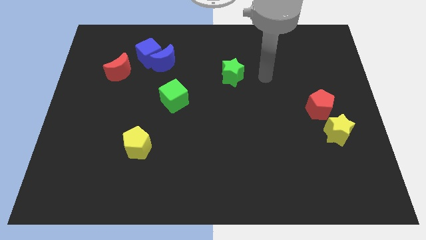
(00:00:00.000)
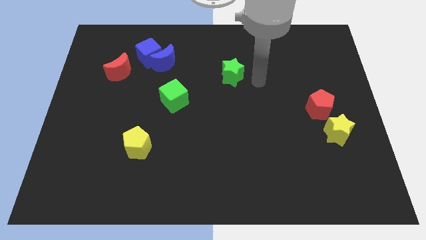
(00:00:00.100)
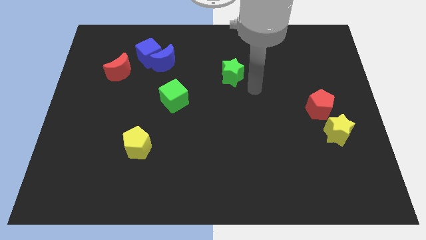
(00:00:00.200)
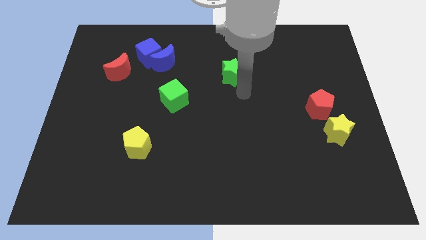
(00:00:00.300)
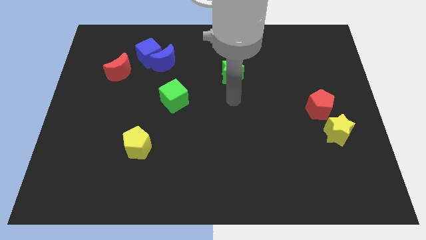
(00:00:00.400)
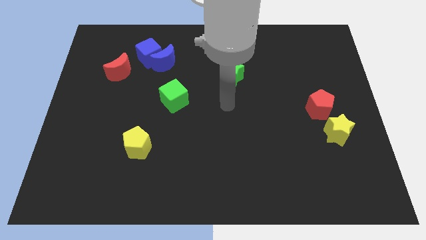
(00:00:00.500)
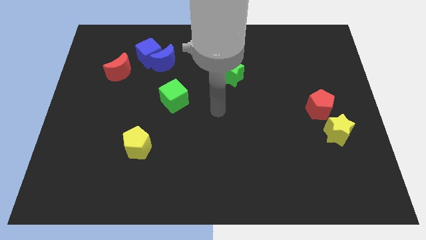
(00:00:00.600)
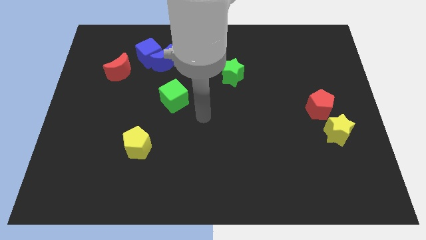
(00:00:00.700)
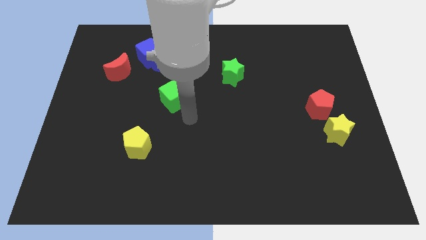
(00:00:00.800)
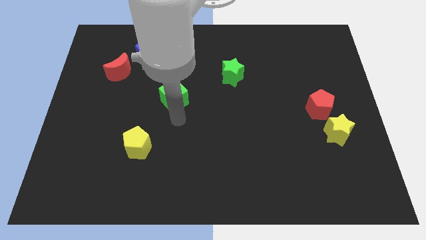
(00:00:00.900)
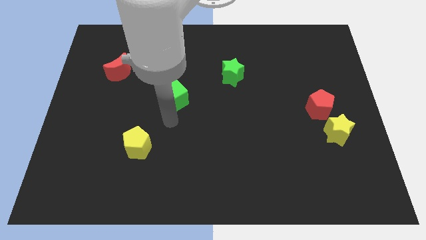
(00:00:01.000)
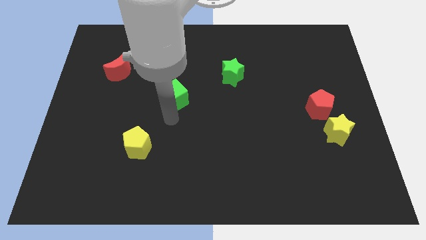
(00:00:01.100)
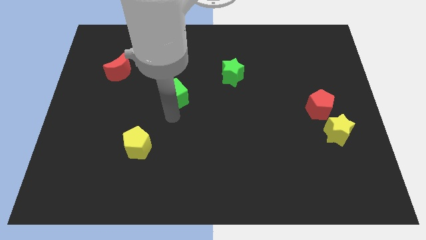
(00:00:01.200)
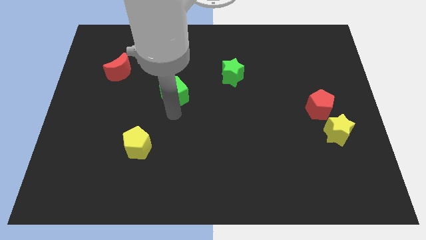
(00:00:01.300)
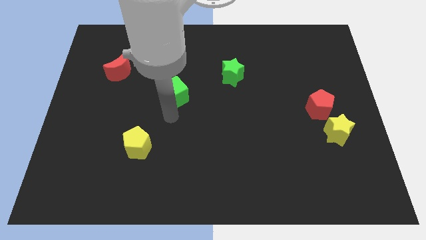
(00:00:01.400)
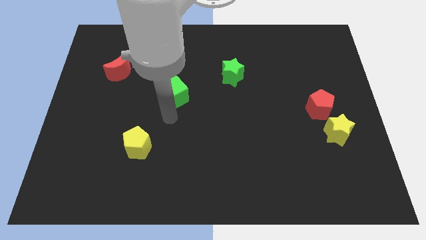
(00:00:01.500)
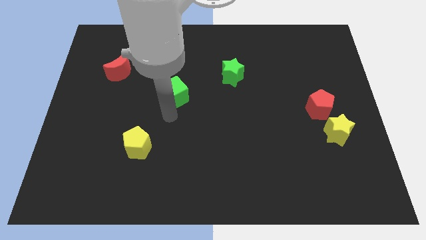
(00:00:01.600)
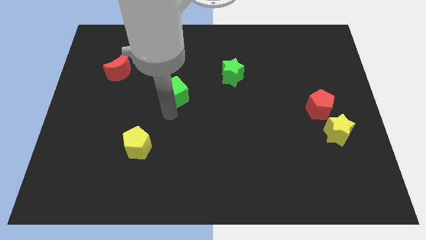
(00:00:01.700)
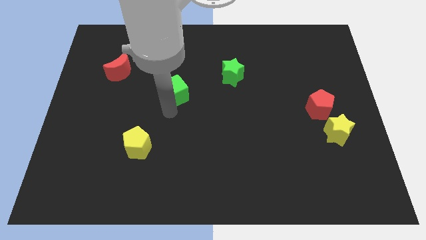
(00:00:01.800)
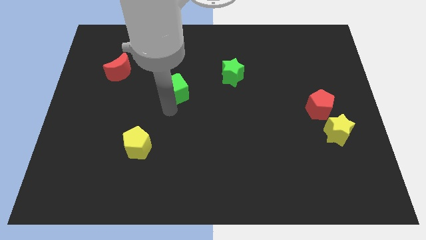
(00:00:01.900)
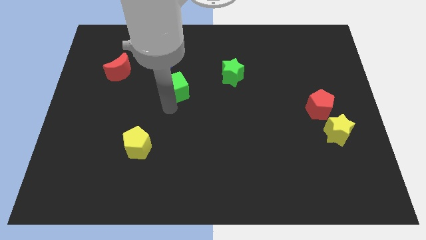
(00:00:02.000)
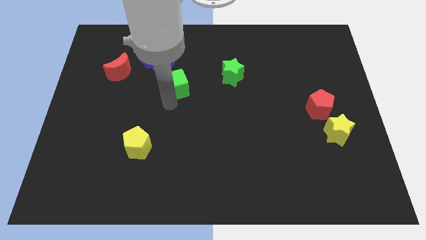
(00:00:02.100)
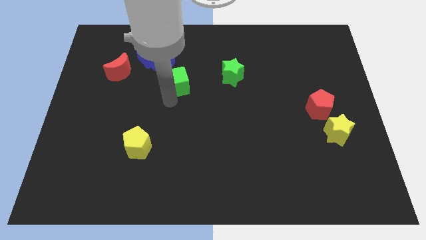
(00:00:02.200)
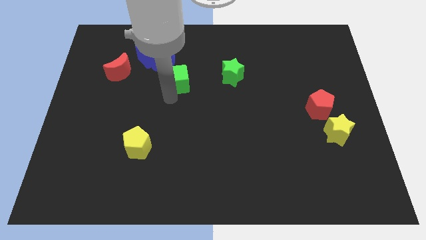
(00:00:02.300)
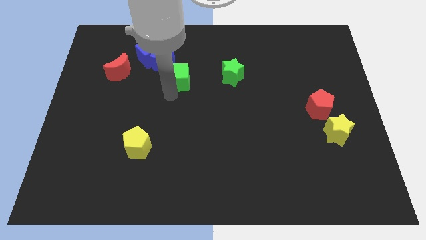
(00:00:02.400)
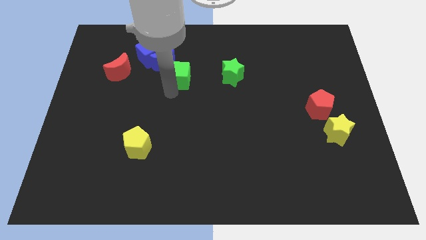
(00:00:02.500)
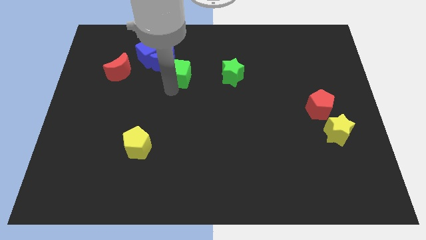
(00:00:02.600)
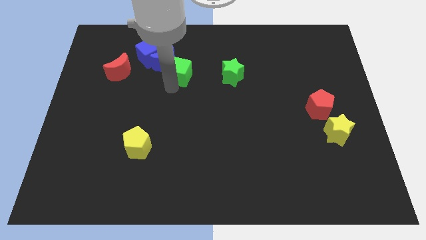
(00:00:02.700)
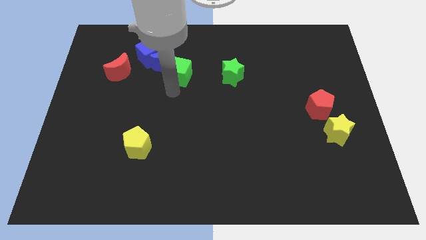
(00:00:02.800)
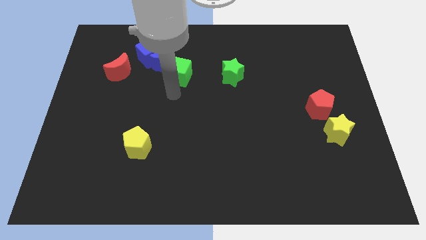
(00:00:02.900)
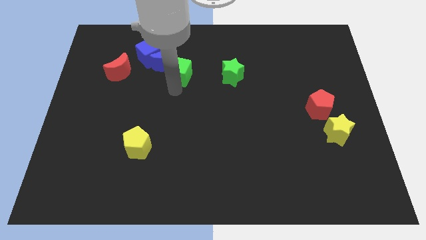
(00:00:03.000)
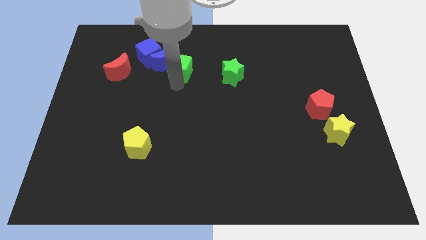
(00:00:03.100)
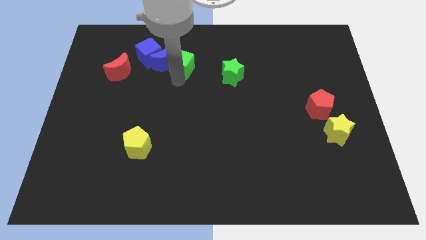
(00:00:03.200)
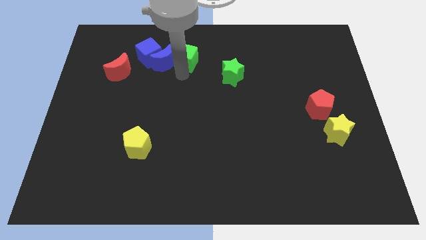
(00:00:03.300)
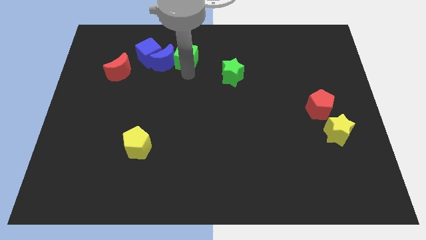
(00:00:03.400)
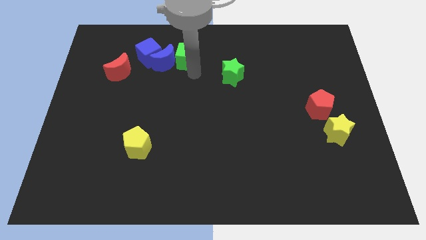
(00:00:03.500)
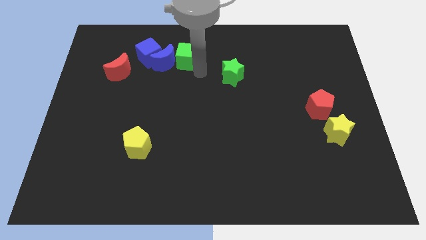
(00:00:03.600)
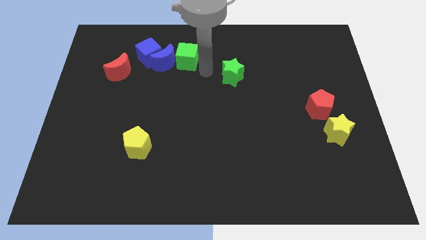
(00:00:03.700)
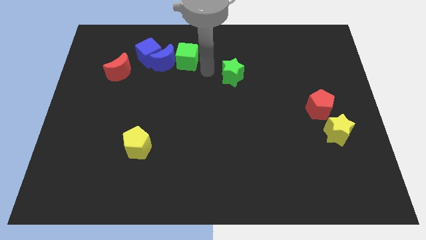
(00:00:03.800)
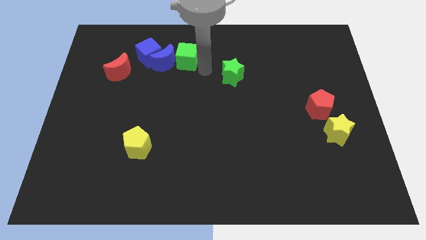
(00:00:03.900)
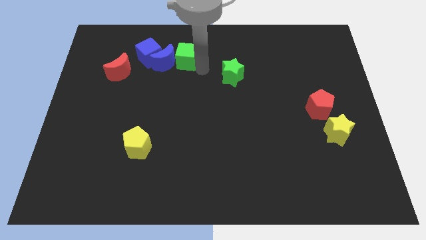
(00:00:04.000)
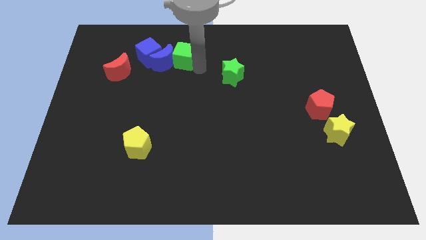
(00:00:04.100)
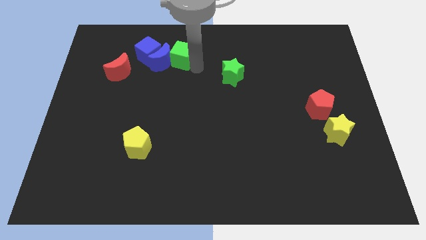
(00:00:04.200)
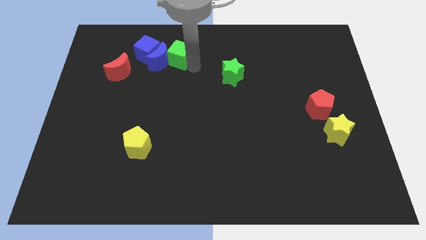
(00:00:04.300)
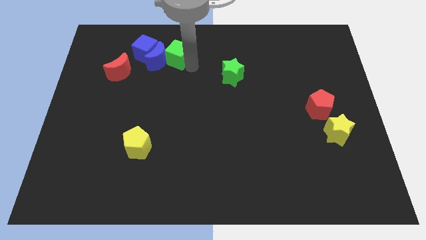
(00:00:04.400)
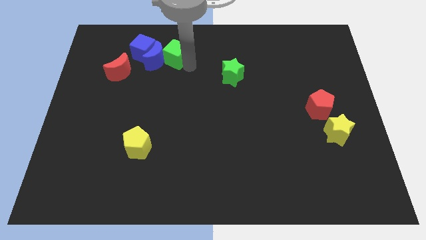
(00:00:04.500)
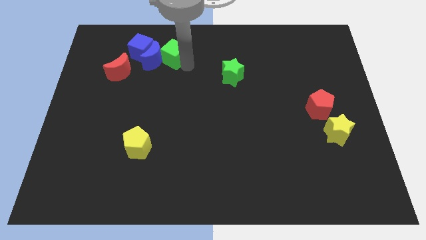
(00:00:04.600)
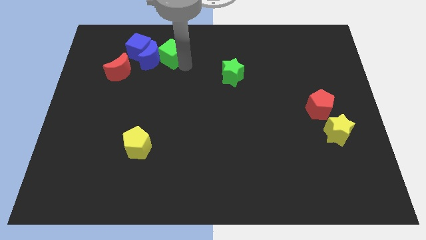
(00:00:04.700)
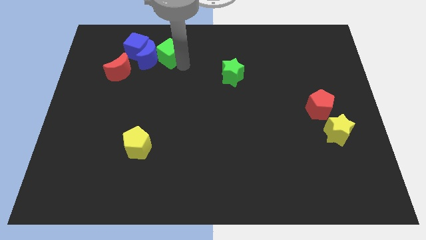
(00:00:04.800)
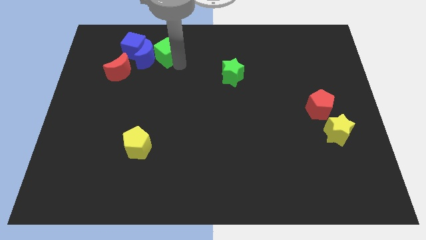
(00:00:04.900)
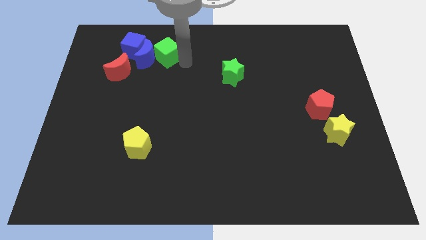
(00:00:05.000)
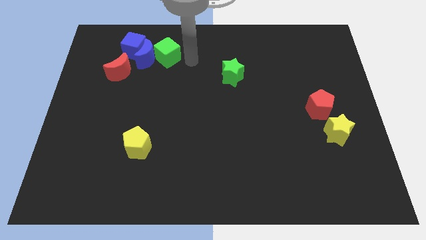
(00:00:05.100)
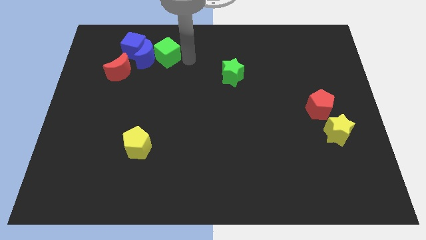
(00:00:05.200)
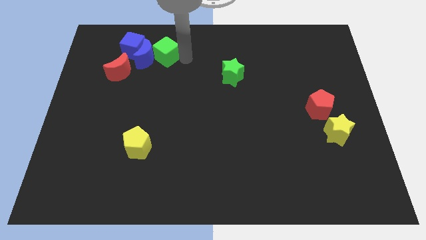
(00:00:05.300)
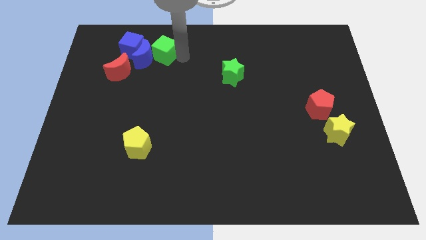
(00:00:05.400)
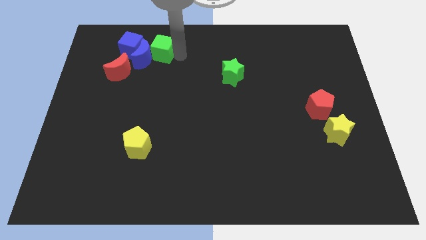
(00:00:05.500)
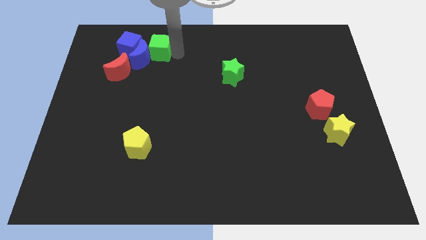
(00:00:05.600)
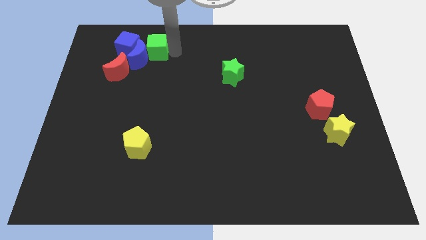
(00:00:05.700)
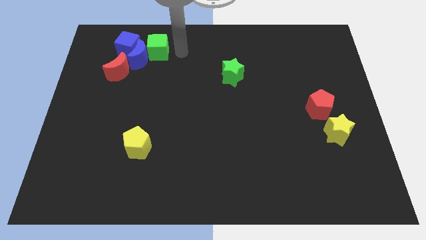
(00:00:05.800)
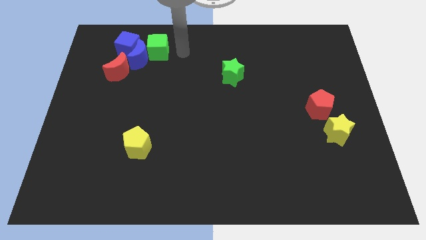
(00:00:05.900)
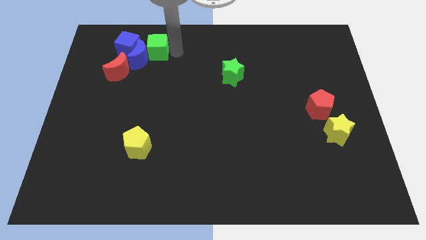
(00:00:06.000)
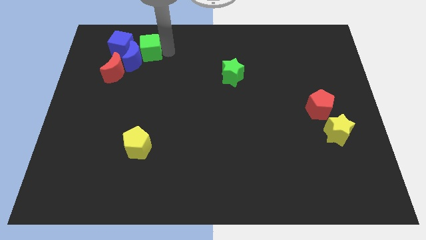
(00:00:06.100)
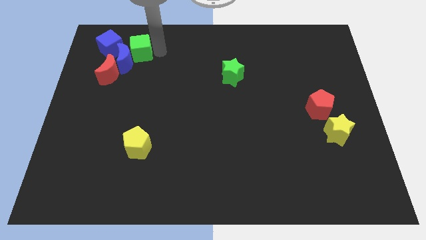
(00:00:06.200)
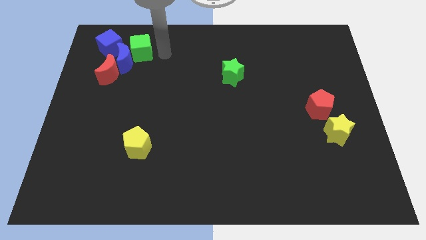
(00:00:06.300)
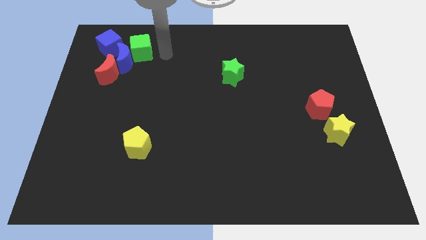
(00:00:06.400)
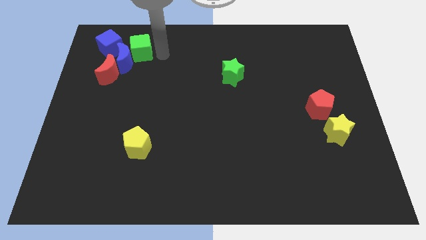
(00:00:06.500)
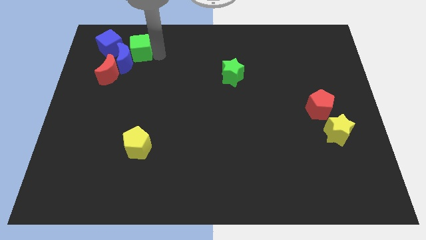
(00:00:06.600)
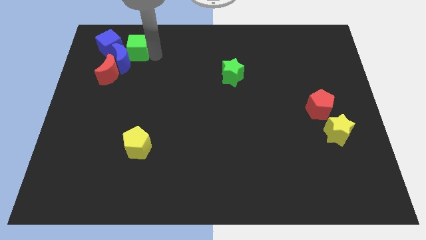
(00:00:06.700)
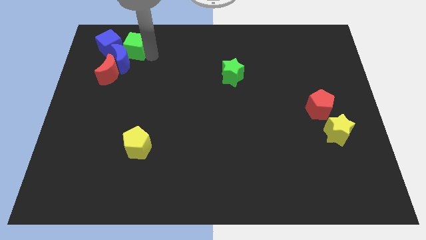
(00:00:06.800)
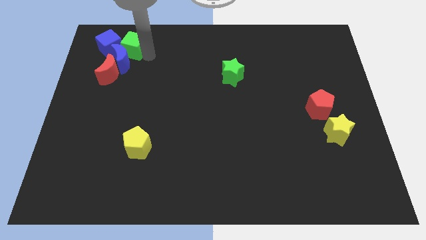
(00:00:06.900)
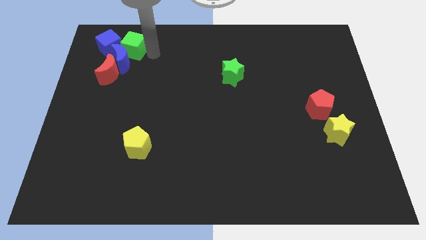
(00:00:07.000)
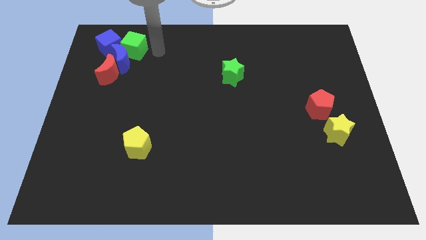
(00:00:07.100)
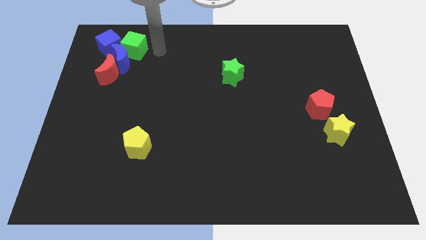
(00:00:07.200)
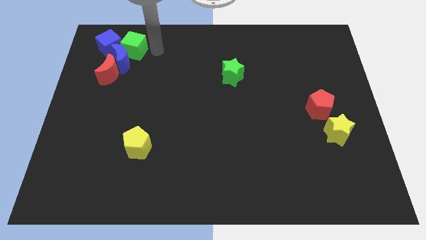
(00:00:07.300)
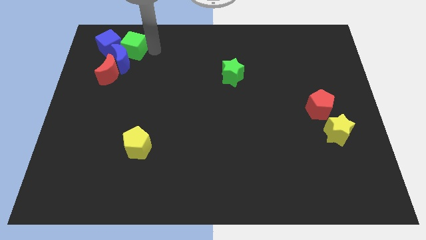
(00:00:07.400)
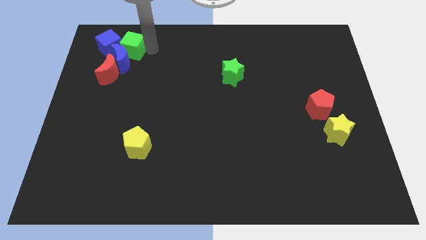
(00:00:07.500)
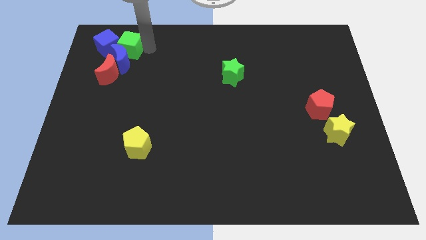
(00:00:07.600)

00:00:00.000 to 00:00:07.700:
move the green cube towards the blue cube
